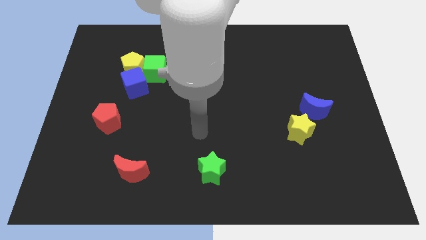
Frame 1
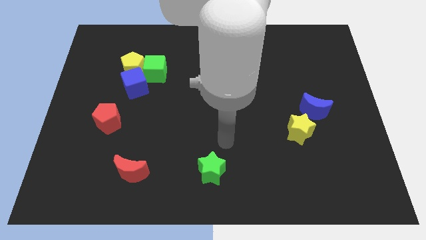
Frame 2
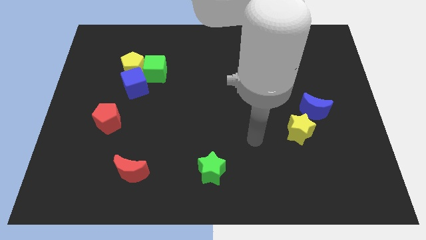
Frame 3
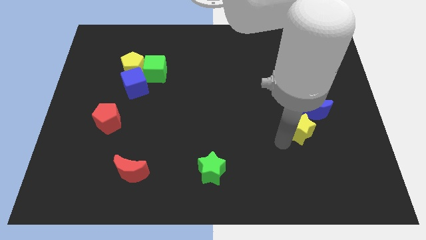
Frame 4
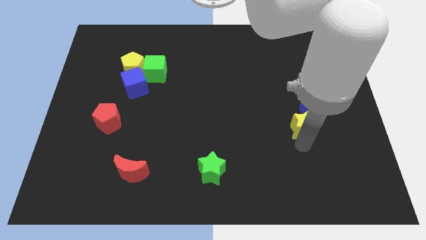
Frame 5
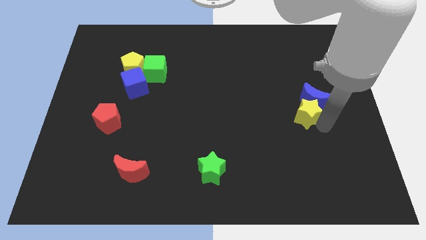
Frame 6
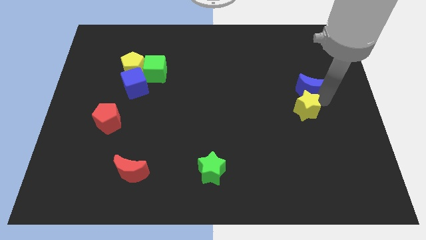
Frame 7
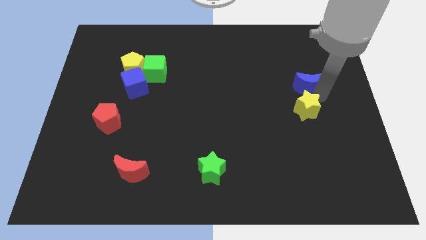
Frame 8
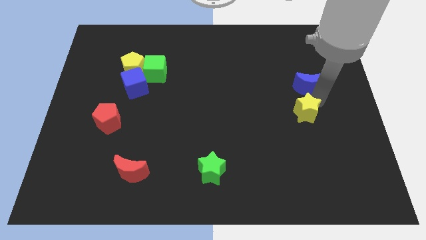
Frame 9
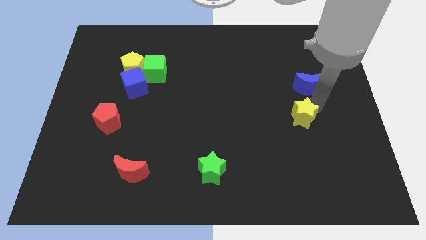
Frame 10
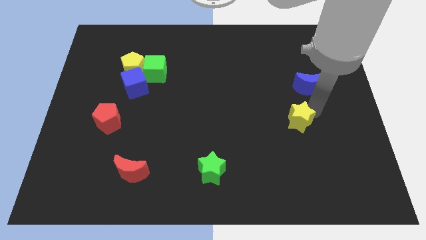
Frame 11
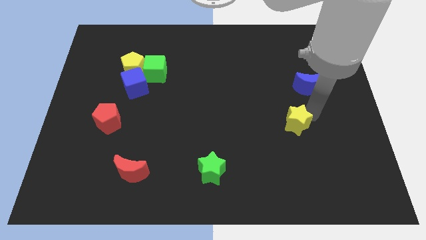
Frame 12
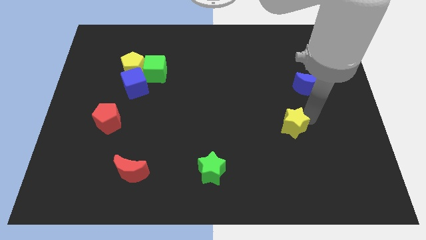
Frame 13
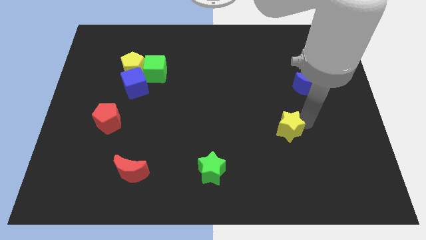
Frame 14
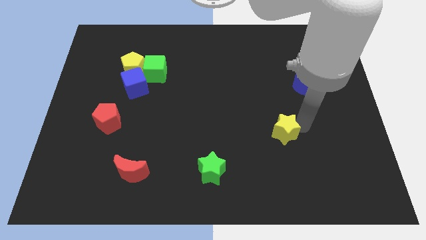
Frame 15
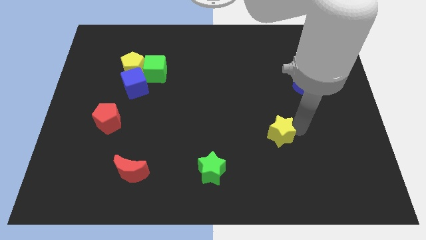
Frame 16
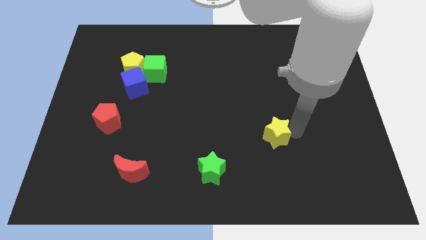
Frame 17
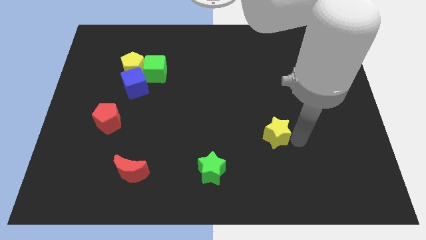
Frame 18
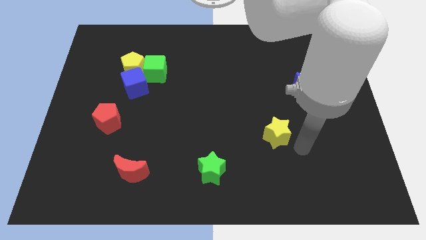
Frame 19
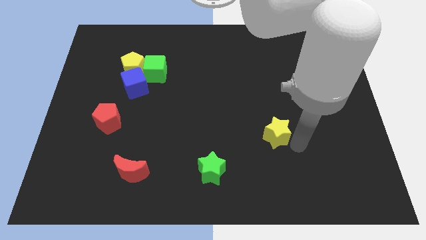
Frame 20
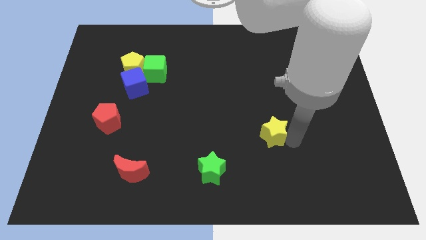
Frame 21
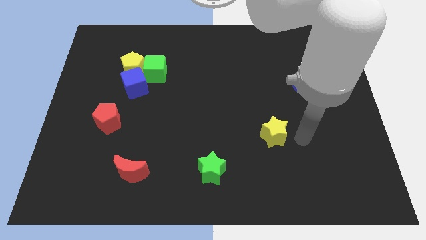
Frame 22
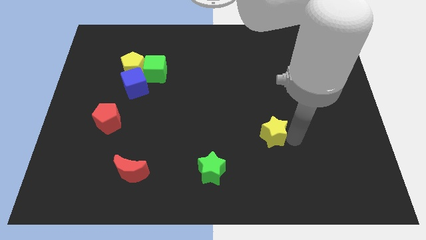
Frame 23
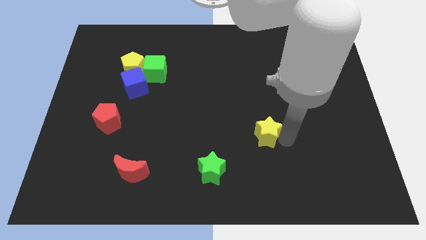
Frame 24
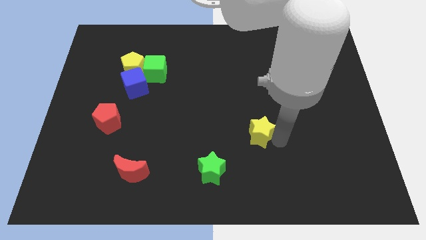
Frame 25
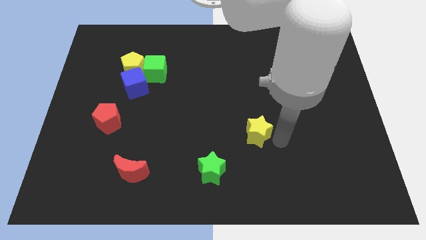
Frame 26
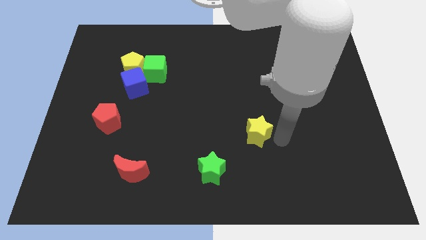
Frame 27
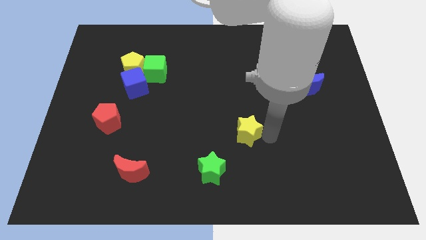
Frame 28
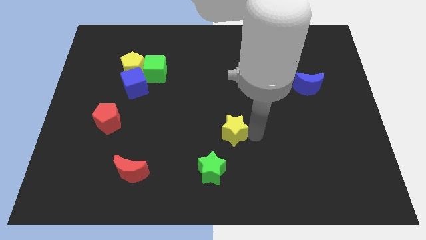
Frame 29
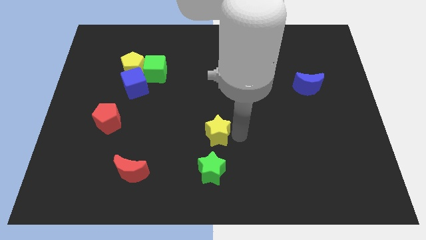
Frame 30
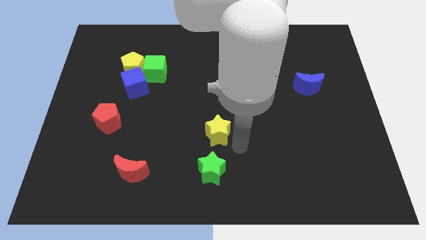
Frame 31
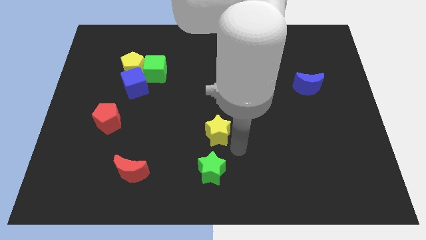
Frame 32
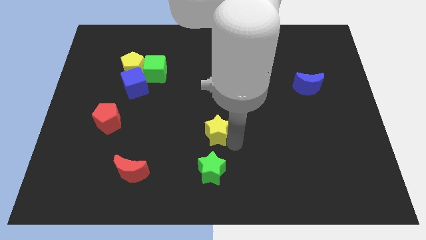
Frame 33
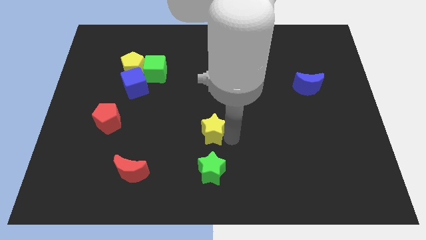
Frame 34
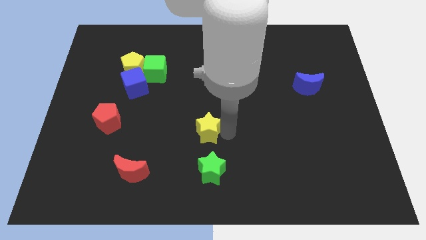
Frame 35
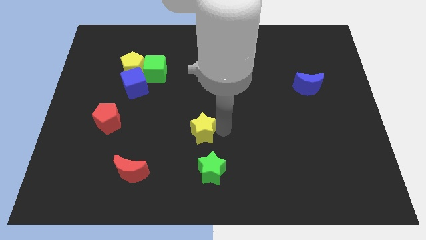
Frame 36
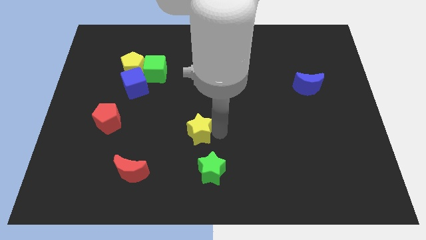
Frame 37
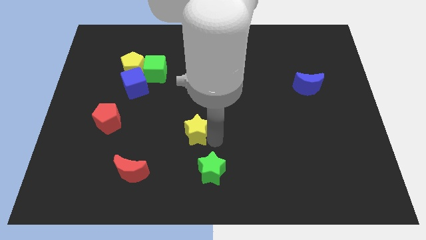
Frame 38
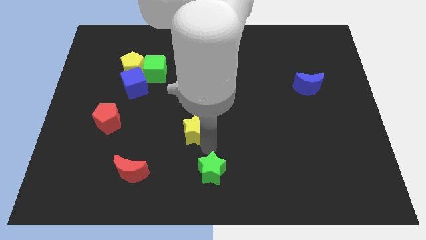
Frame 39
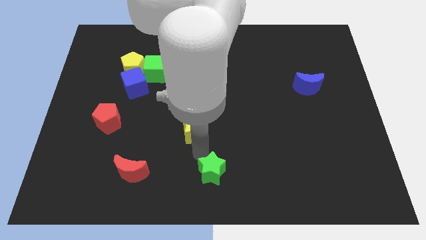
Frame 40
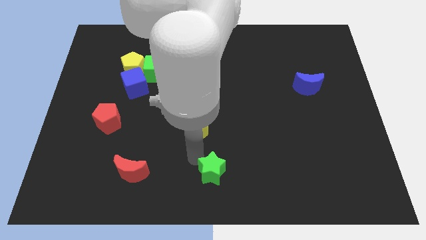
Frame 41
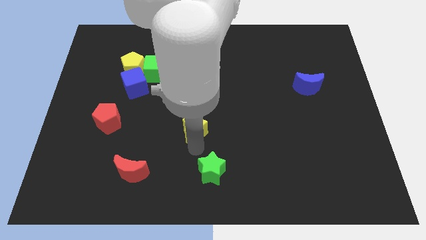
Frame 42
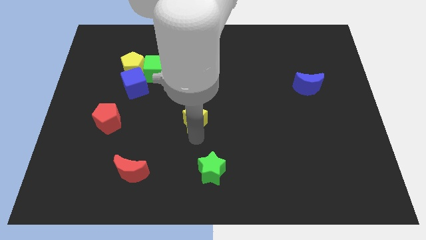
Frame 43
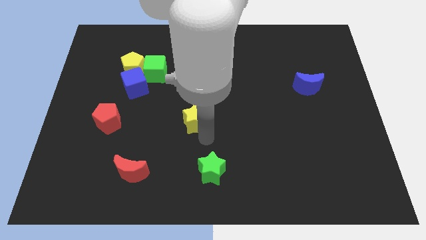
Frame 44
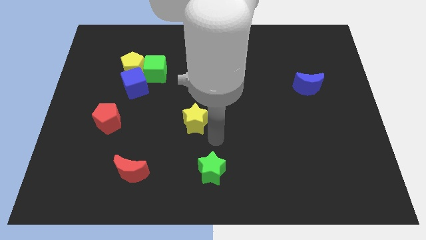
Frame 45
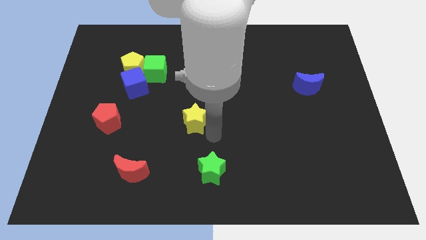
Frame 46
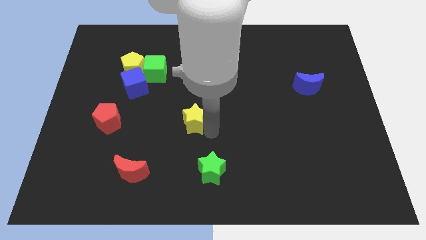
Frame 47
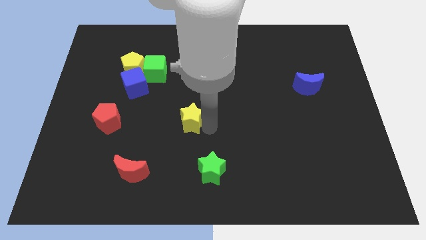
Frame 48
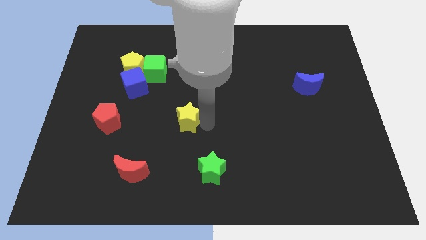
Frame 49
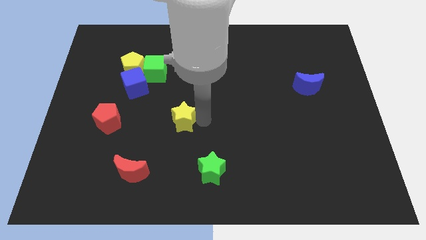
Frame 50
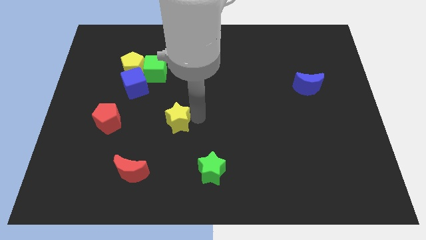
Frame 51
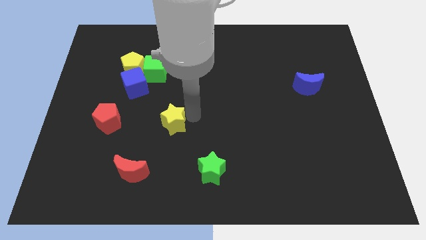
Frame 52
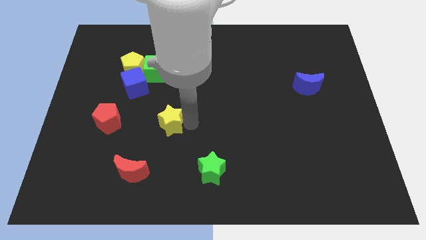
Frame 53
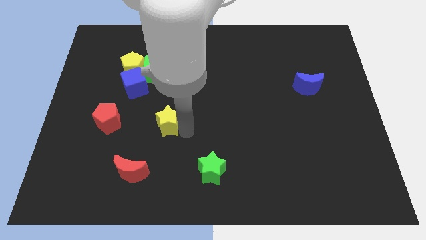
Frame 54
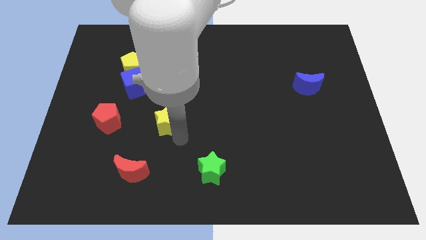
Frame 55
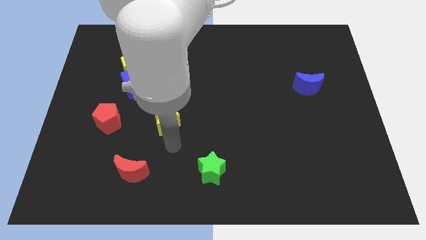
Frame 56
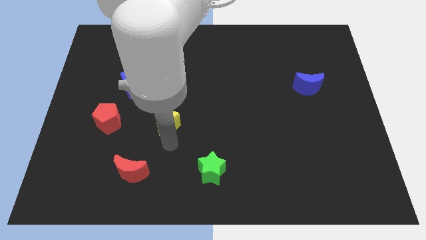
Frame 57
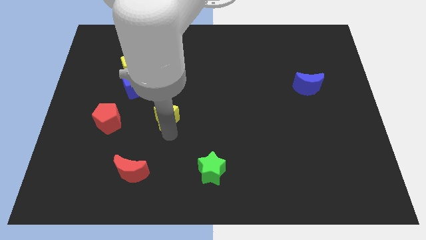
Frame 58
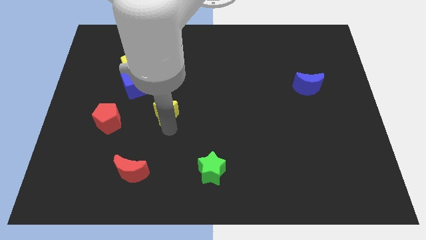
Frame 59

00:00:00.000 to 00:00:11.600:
slide the yellow star below the green cube

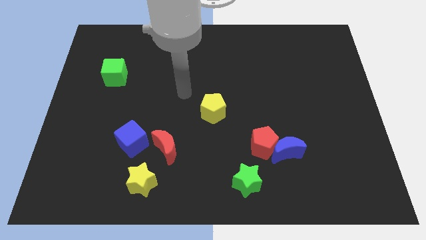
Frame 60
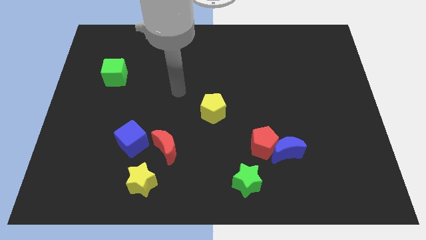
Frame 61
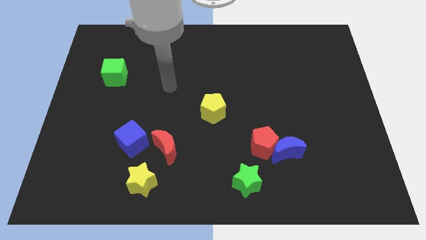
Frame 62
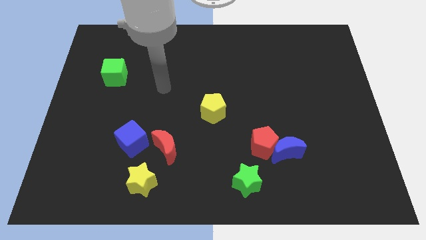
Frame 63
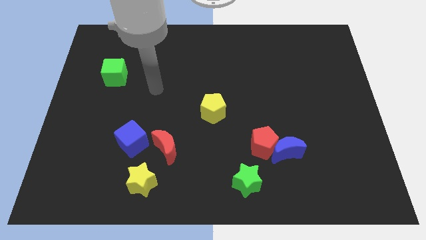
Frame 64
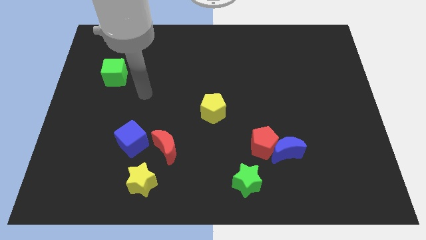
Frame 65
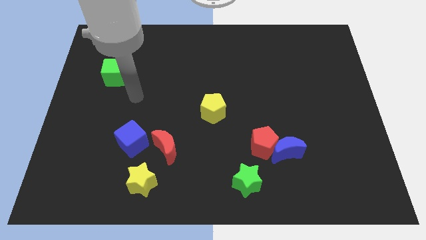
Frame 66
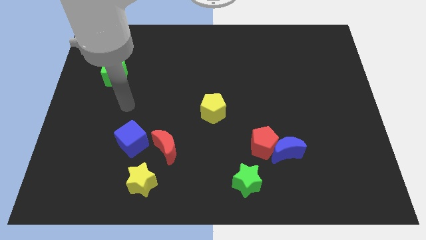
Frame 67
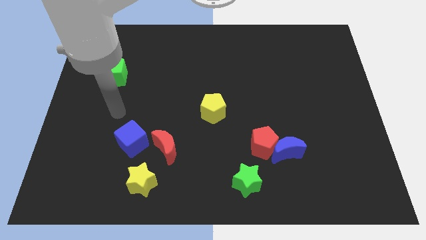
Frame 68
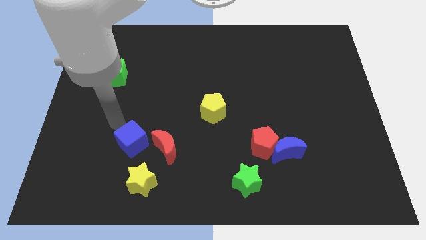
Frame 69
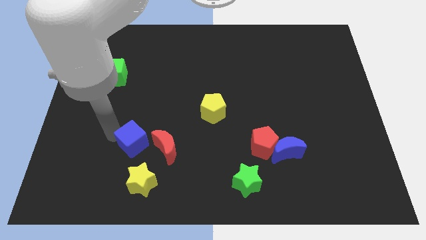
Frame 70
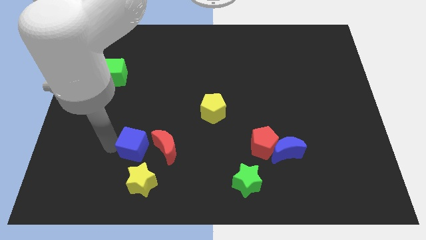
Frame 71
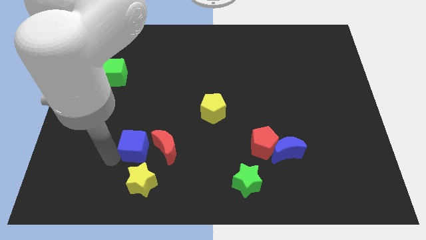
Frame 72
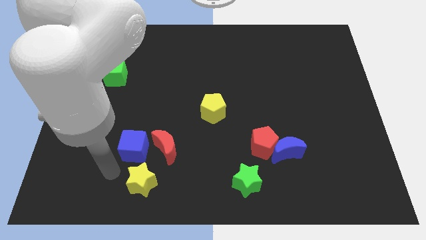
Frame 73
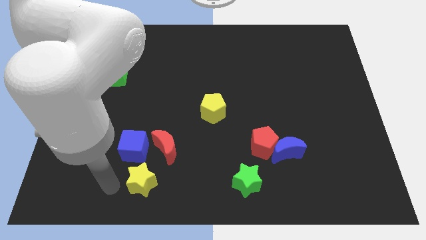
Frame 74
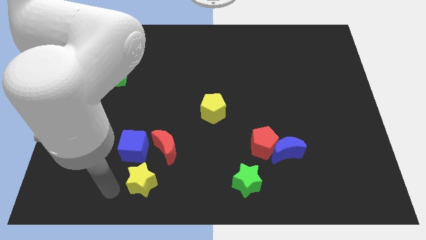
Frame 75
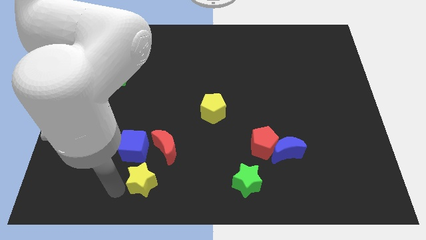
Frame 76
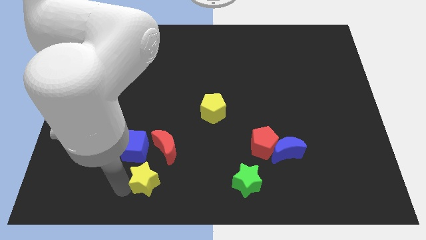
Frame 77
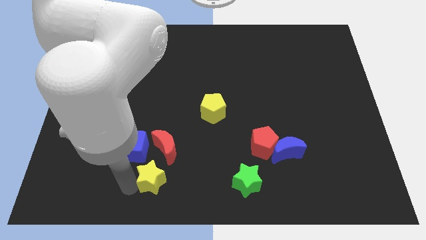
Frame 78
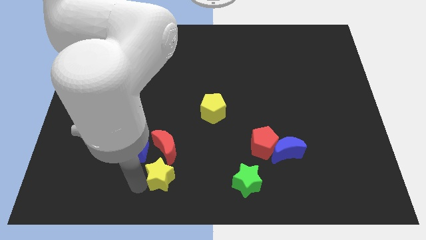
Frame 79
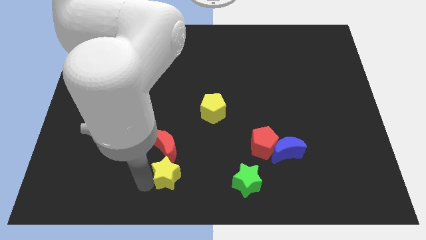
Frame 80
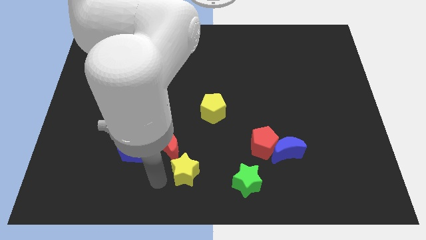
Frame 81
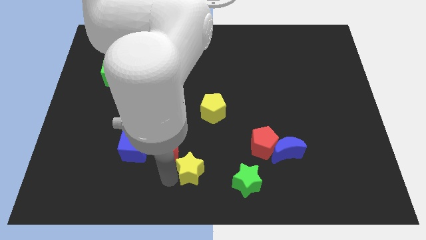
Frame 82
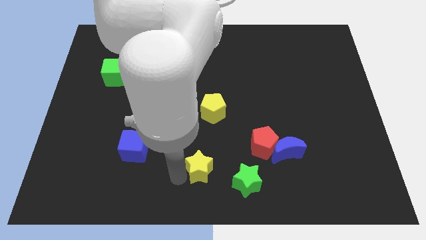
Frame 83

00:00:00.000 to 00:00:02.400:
slide the yellow star to the top left of the green star
